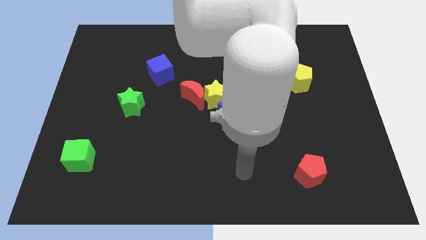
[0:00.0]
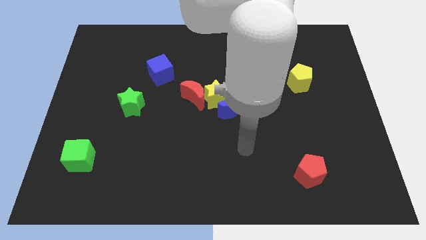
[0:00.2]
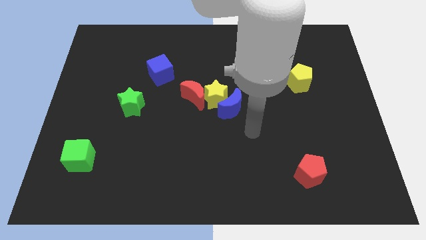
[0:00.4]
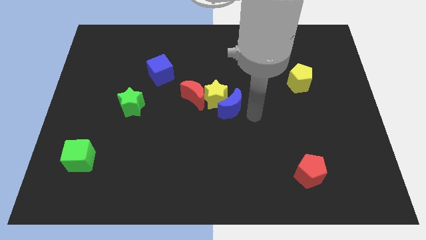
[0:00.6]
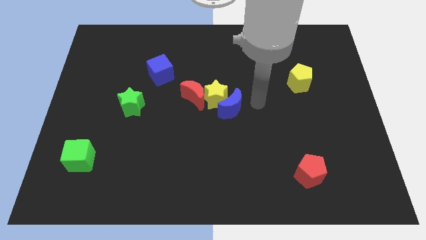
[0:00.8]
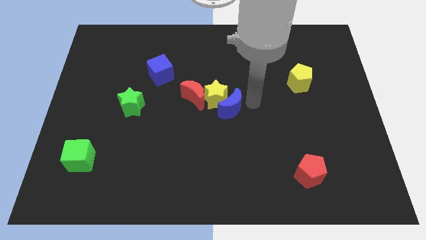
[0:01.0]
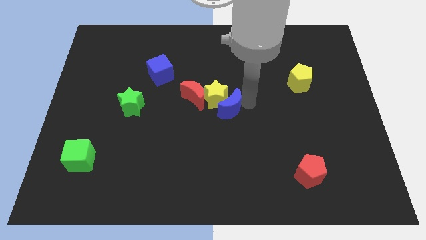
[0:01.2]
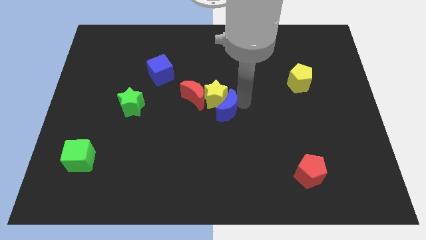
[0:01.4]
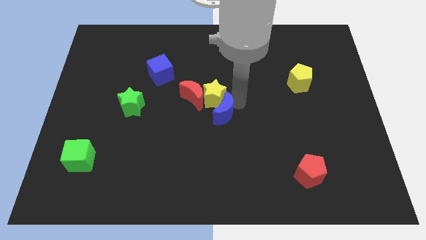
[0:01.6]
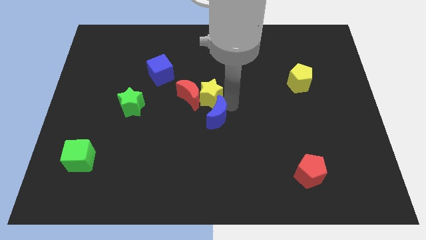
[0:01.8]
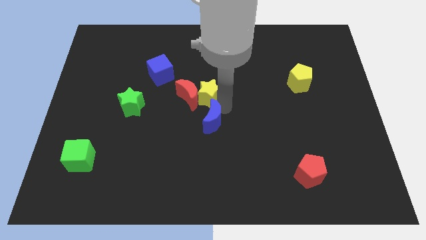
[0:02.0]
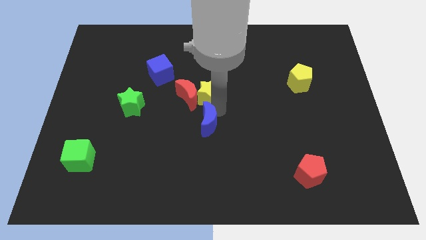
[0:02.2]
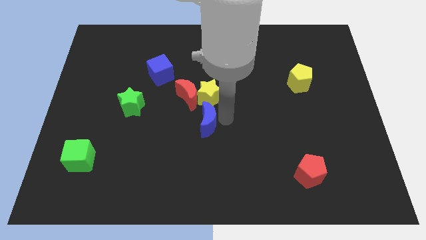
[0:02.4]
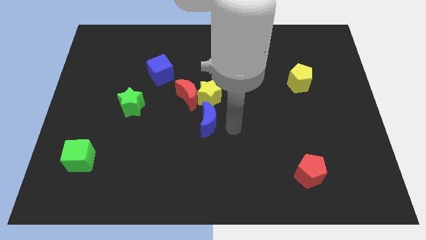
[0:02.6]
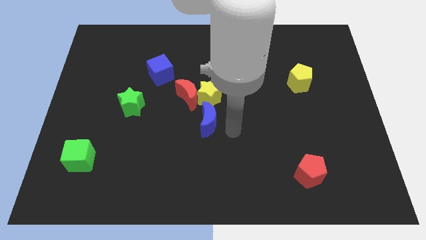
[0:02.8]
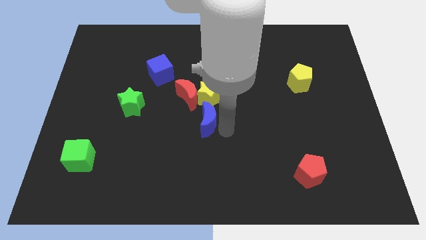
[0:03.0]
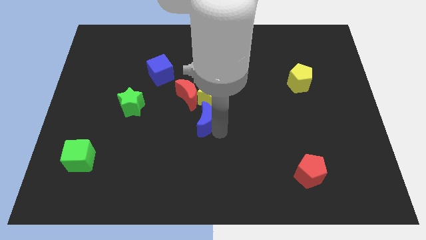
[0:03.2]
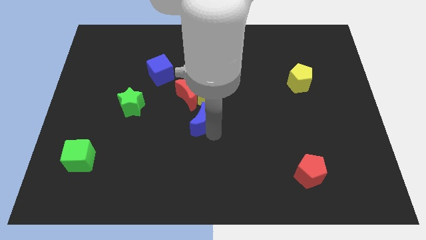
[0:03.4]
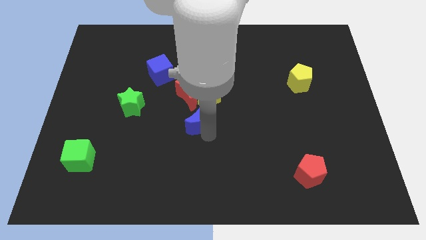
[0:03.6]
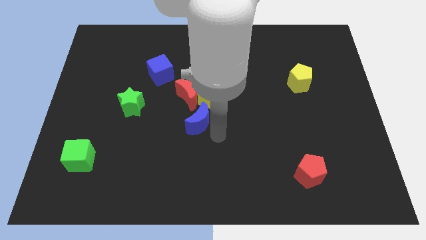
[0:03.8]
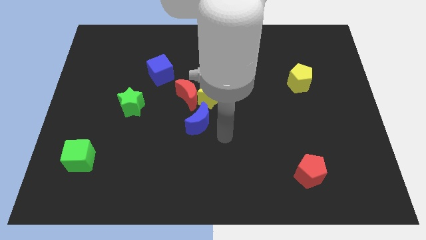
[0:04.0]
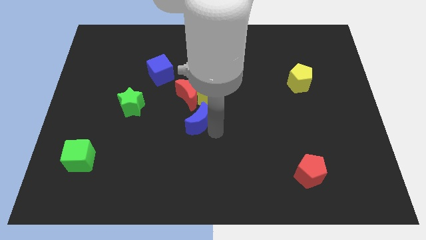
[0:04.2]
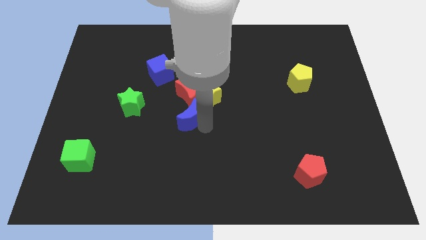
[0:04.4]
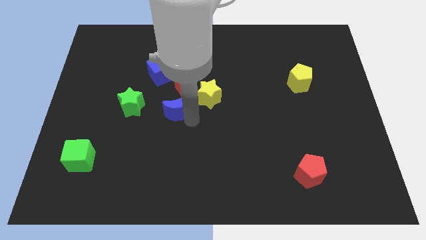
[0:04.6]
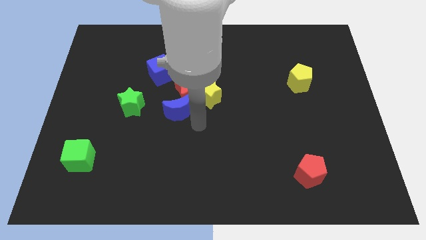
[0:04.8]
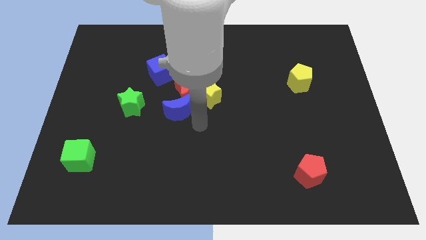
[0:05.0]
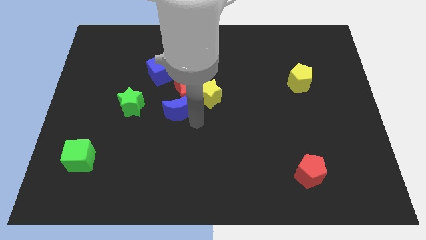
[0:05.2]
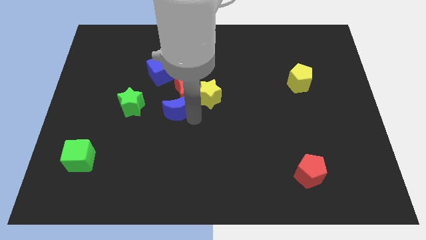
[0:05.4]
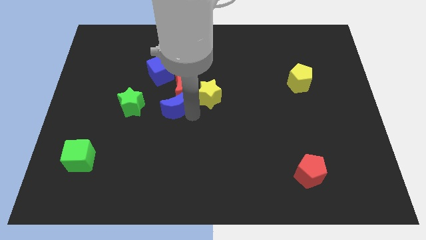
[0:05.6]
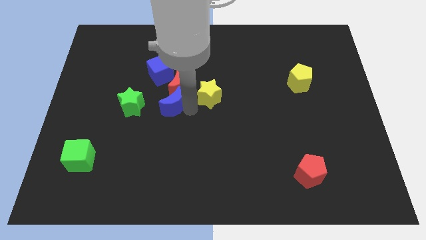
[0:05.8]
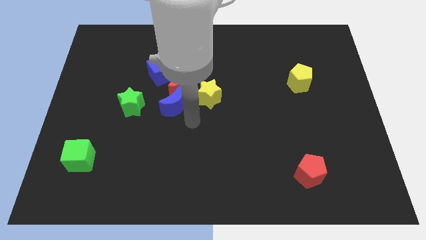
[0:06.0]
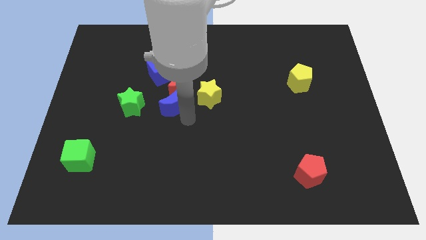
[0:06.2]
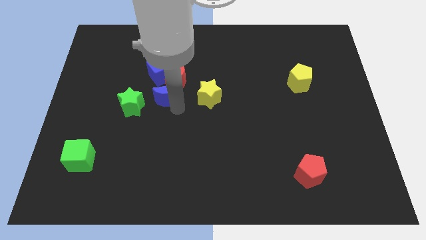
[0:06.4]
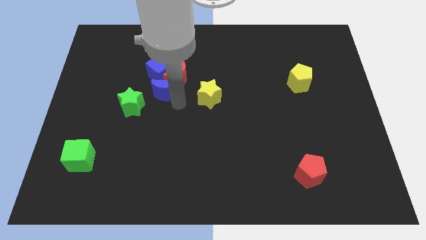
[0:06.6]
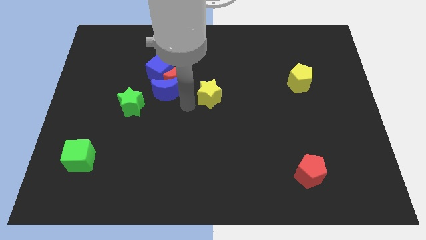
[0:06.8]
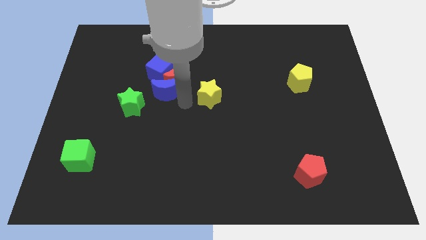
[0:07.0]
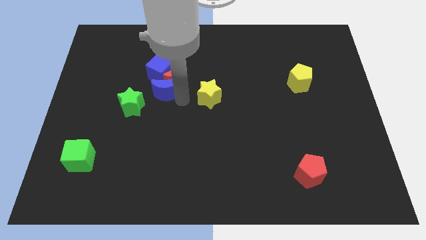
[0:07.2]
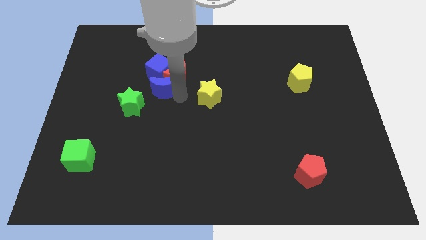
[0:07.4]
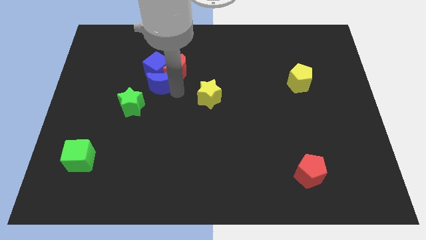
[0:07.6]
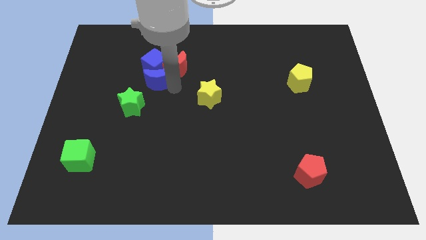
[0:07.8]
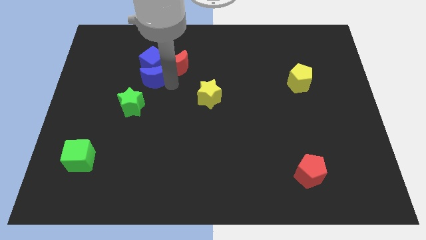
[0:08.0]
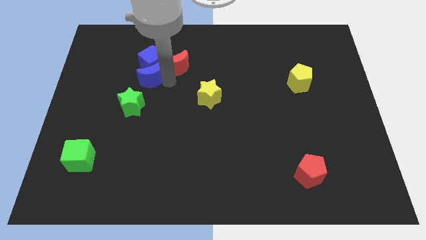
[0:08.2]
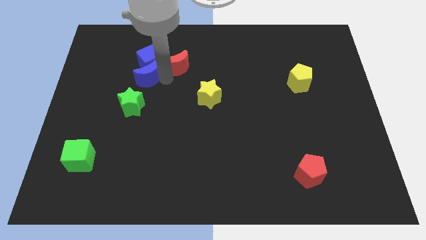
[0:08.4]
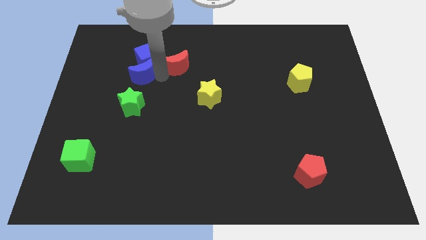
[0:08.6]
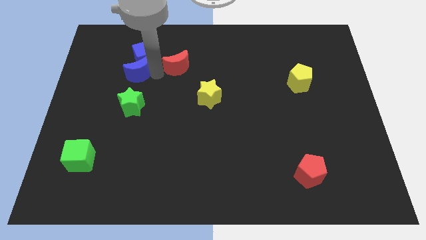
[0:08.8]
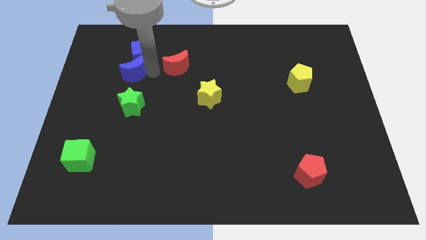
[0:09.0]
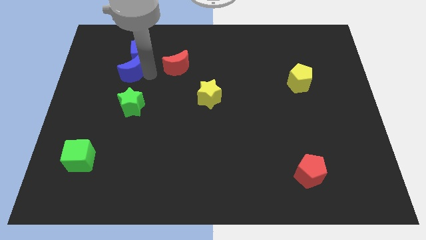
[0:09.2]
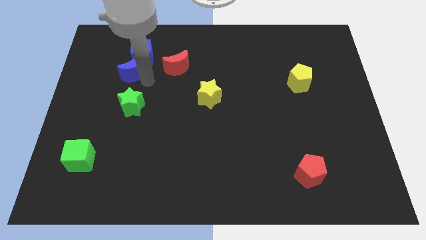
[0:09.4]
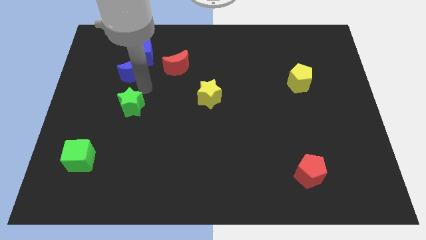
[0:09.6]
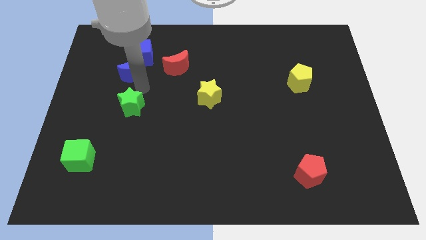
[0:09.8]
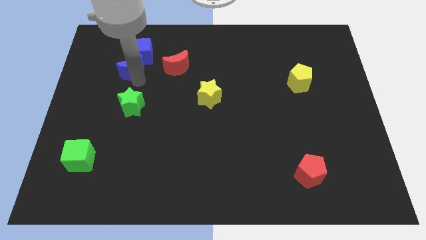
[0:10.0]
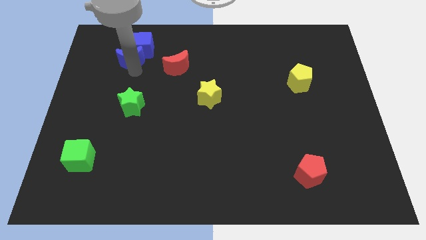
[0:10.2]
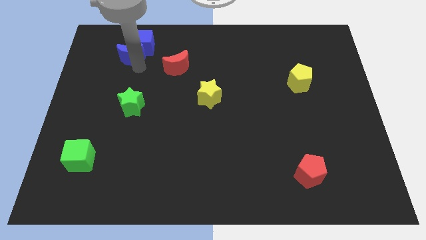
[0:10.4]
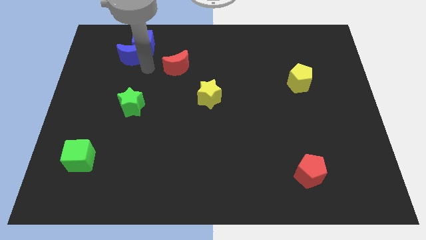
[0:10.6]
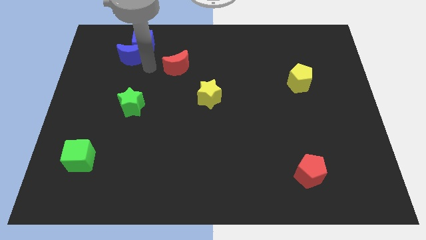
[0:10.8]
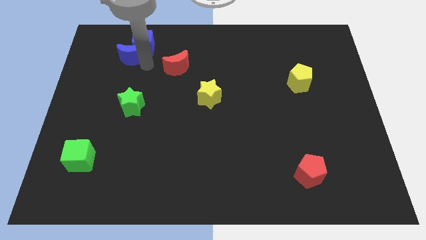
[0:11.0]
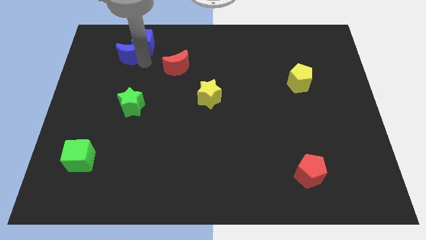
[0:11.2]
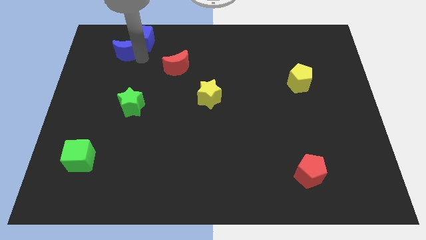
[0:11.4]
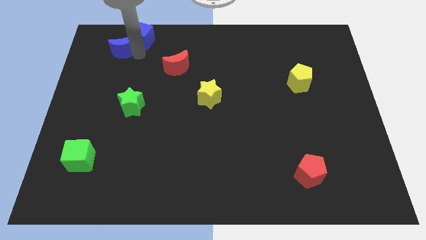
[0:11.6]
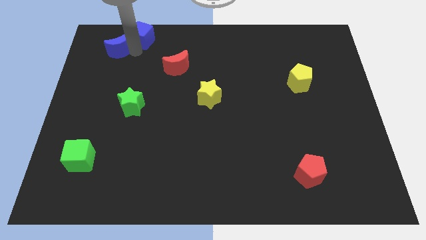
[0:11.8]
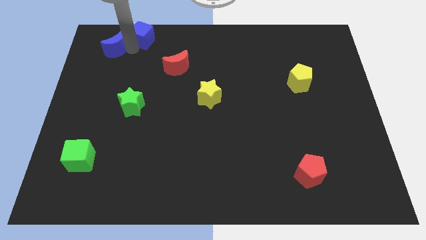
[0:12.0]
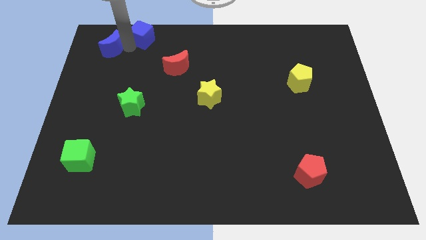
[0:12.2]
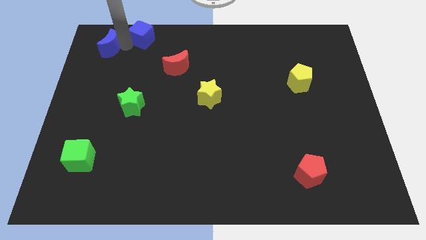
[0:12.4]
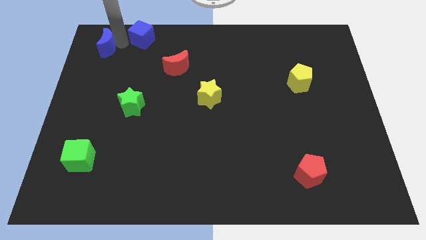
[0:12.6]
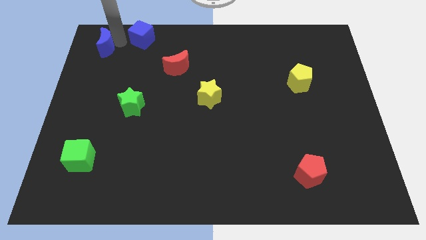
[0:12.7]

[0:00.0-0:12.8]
put the blue moon to the top left
